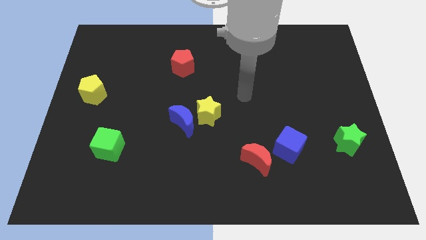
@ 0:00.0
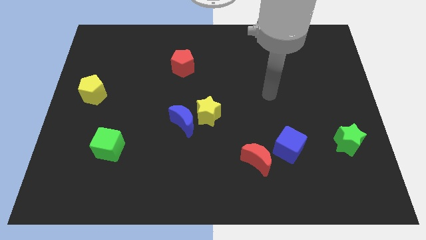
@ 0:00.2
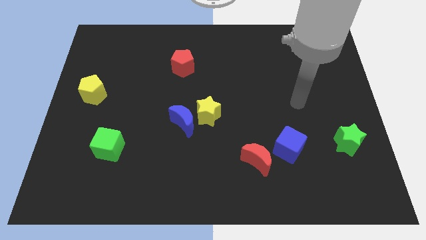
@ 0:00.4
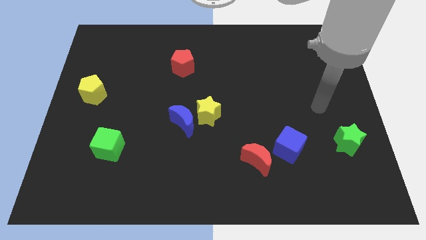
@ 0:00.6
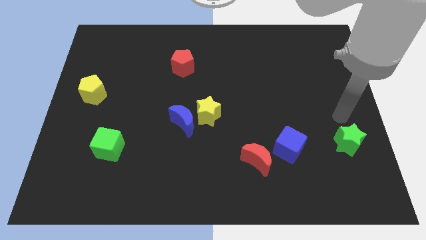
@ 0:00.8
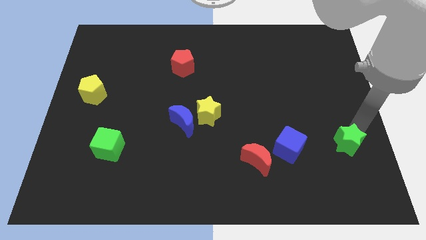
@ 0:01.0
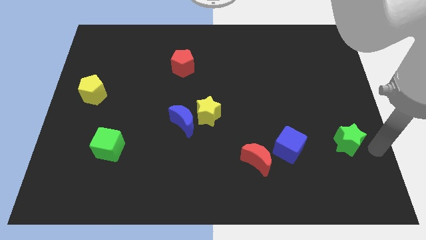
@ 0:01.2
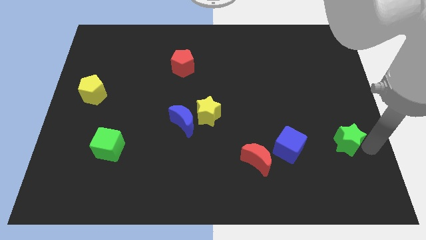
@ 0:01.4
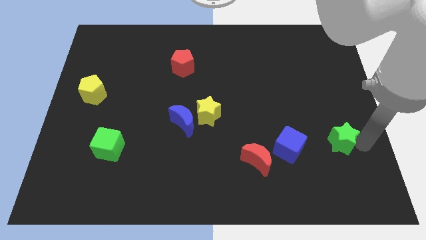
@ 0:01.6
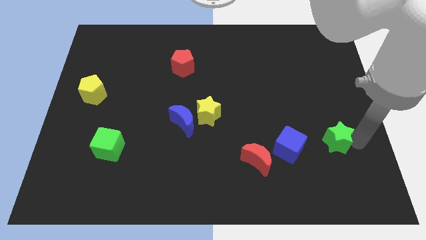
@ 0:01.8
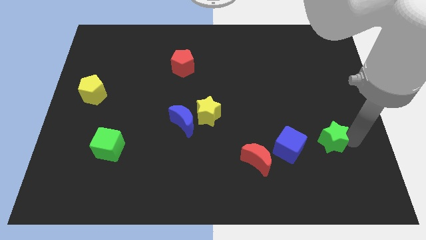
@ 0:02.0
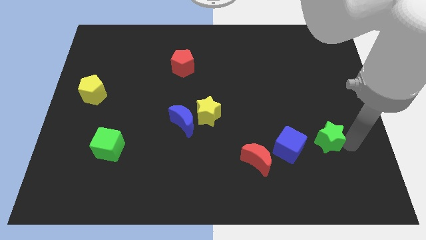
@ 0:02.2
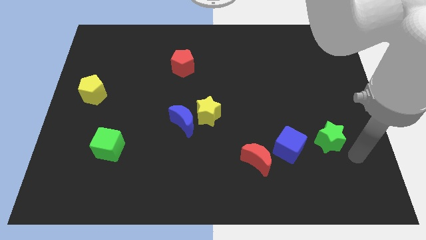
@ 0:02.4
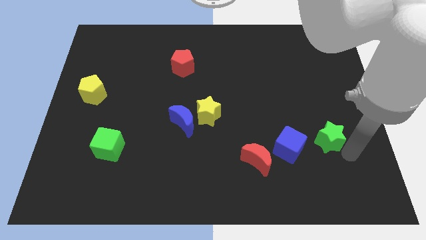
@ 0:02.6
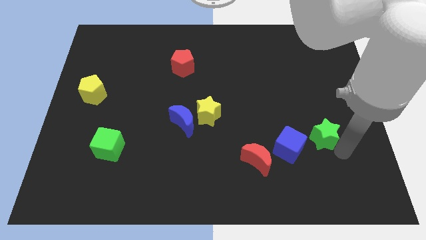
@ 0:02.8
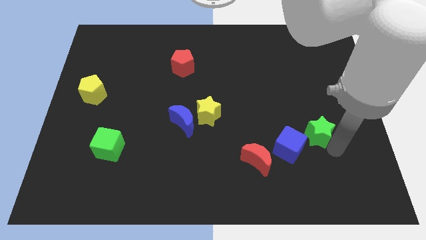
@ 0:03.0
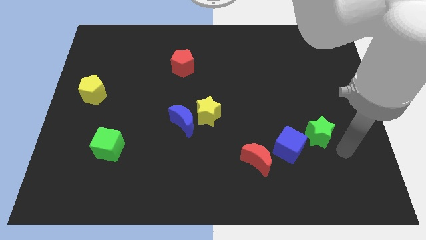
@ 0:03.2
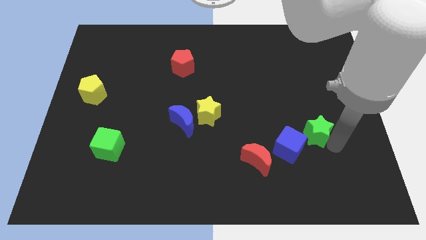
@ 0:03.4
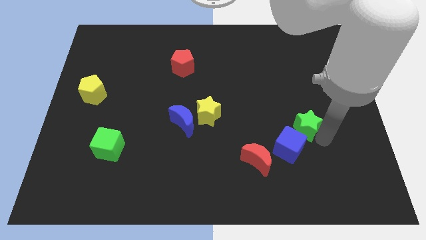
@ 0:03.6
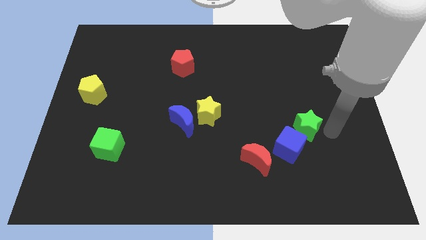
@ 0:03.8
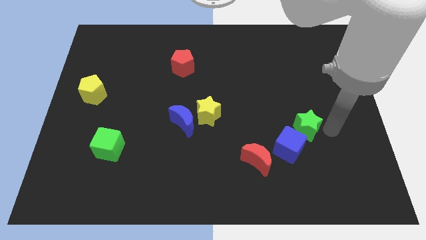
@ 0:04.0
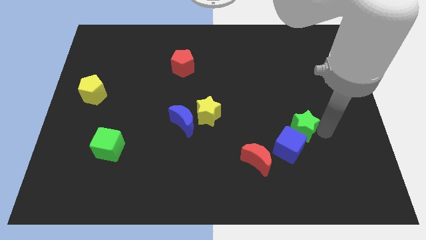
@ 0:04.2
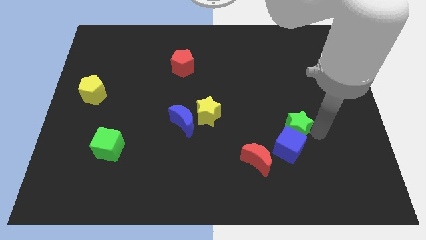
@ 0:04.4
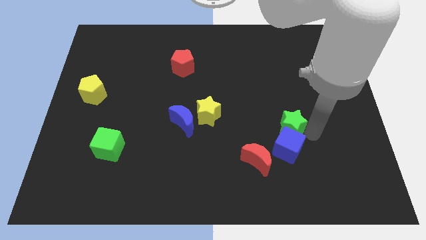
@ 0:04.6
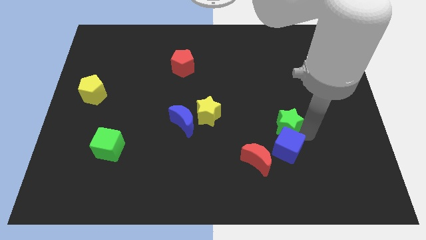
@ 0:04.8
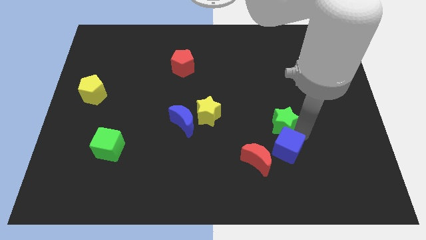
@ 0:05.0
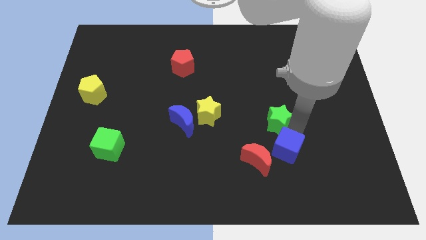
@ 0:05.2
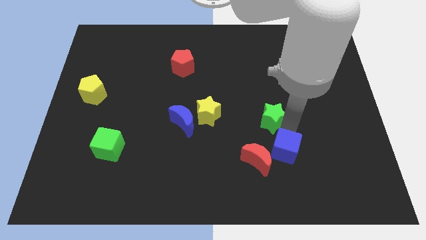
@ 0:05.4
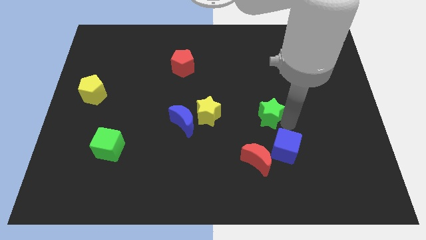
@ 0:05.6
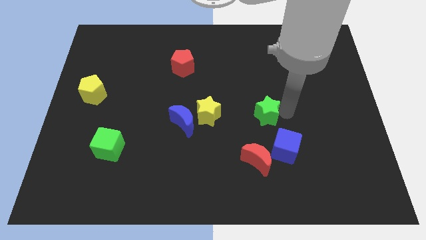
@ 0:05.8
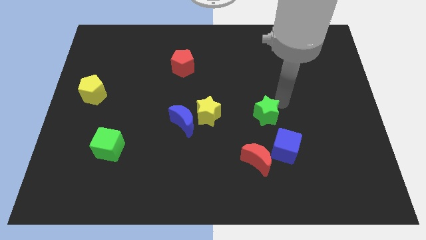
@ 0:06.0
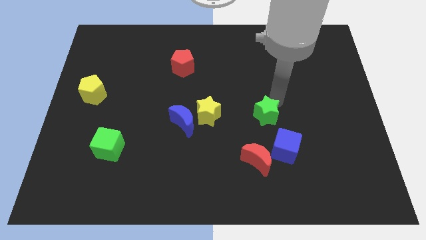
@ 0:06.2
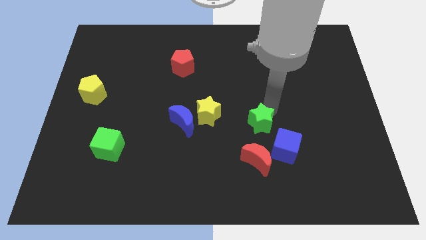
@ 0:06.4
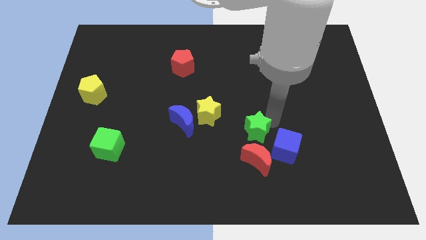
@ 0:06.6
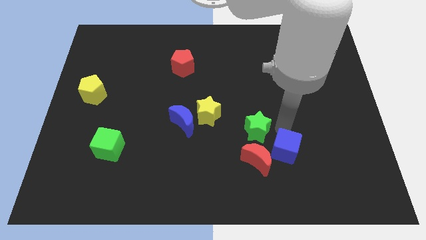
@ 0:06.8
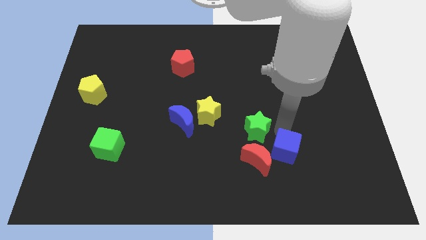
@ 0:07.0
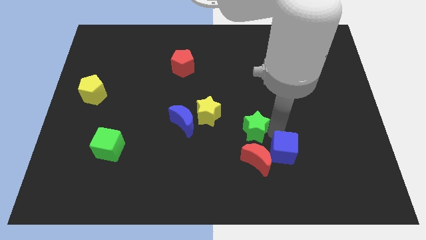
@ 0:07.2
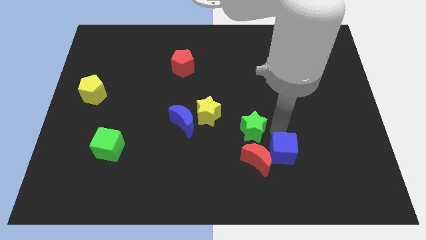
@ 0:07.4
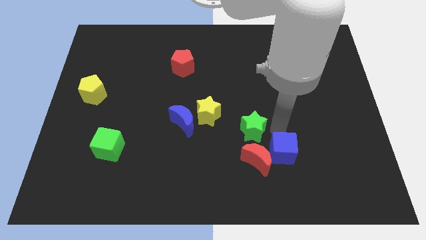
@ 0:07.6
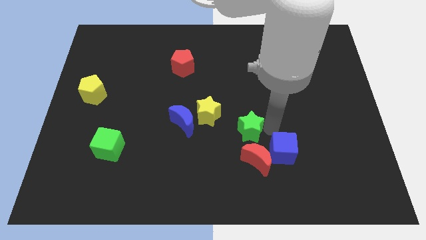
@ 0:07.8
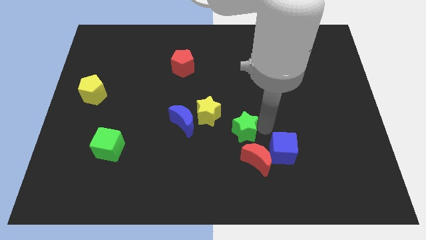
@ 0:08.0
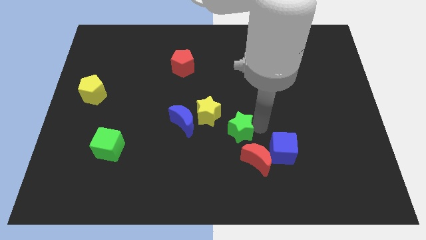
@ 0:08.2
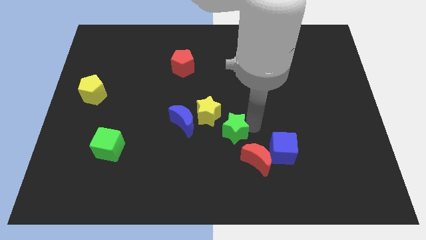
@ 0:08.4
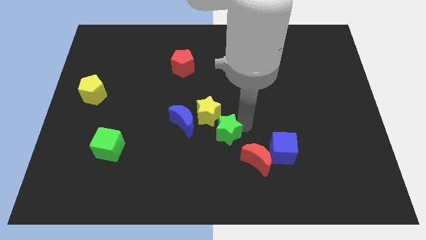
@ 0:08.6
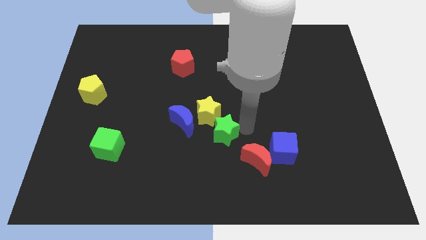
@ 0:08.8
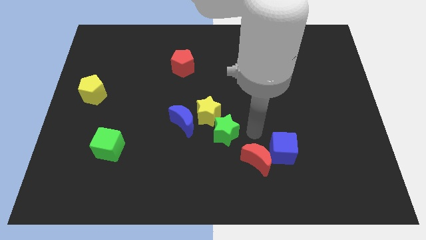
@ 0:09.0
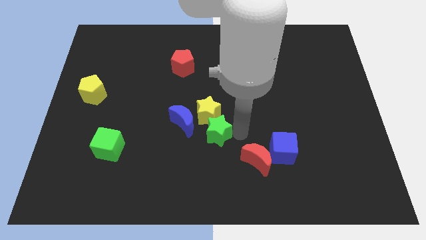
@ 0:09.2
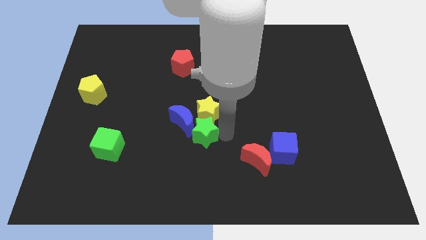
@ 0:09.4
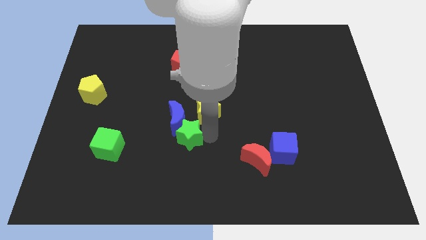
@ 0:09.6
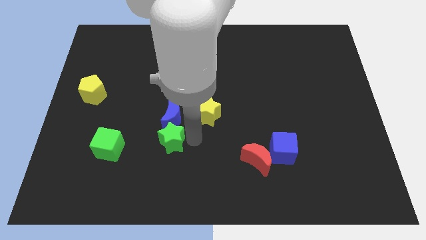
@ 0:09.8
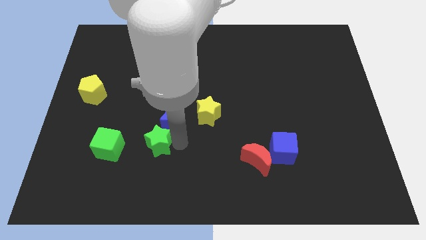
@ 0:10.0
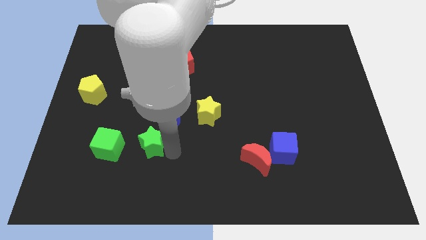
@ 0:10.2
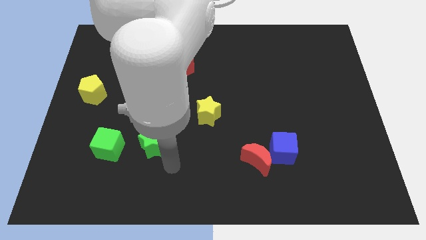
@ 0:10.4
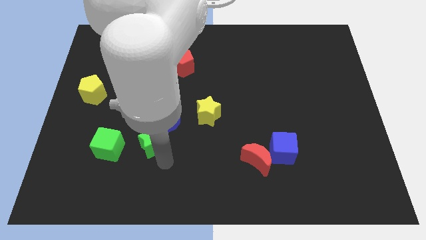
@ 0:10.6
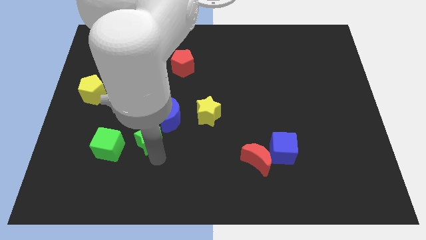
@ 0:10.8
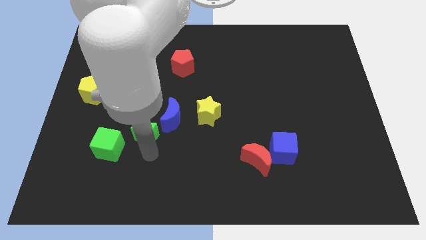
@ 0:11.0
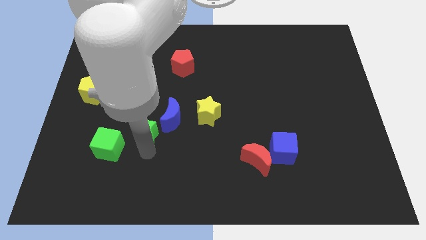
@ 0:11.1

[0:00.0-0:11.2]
put the green star to the left of the blue moon

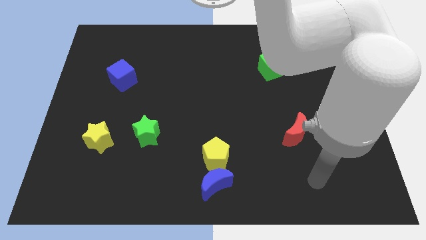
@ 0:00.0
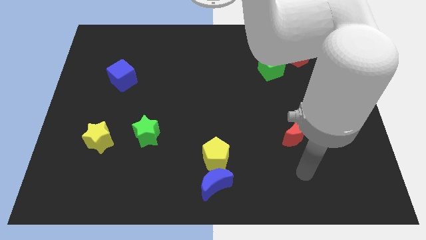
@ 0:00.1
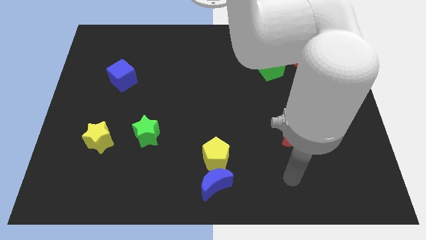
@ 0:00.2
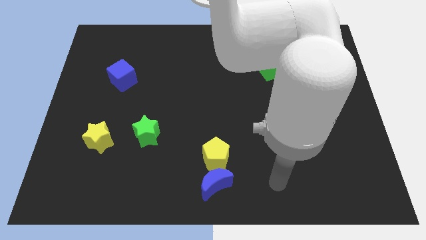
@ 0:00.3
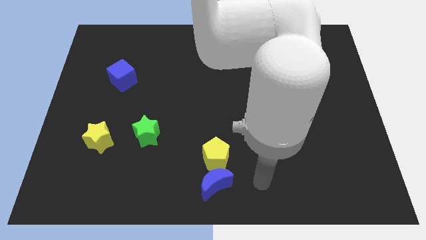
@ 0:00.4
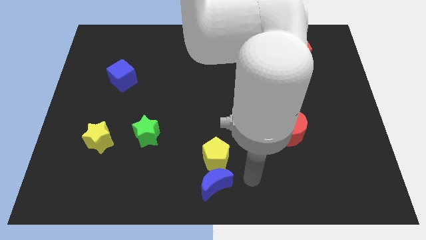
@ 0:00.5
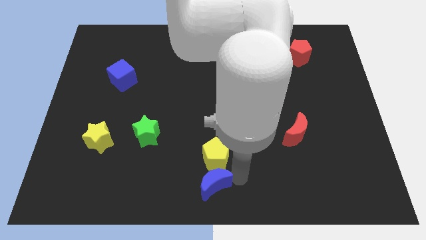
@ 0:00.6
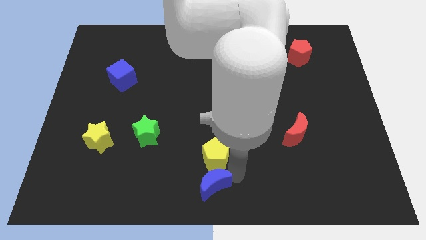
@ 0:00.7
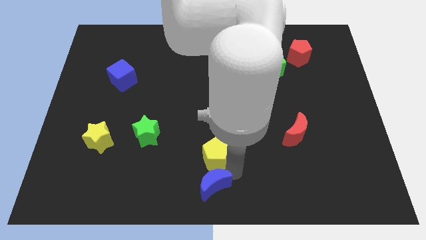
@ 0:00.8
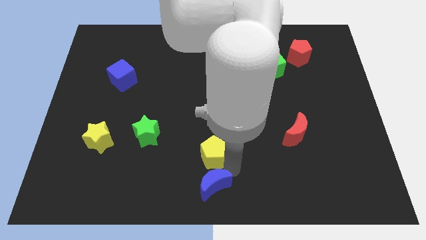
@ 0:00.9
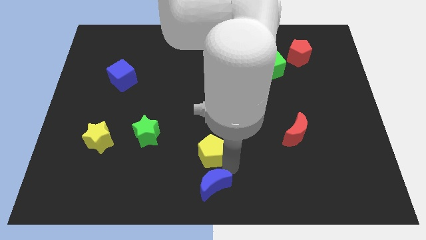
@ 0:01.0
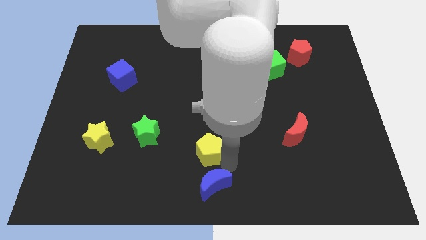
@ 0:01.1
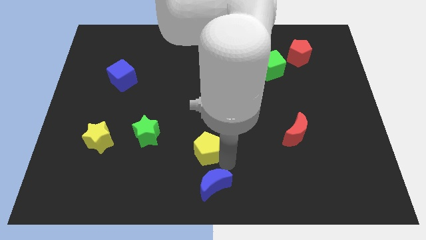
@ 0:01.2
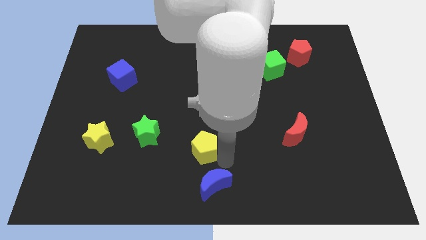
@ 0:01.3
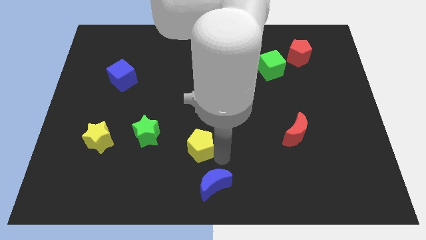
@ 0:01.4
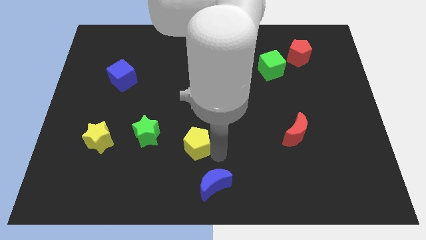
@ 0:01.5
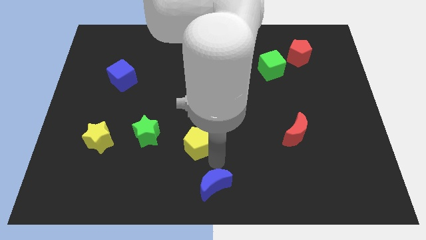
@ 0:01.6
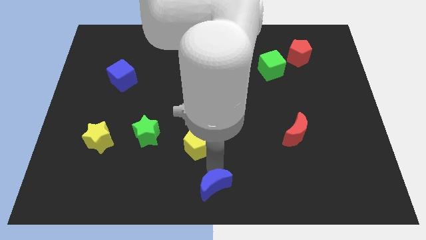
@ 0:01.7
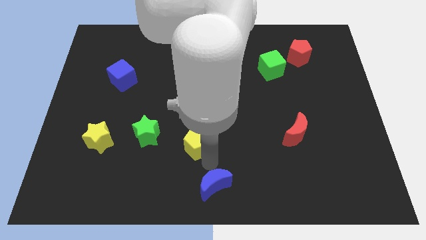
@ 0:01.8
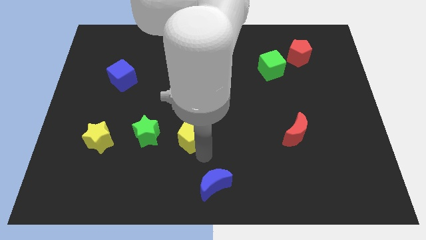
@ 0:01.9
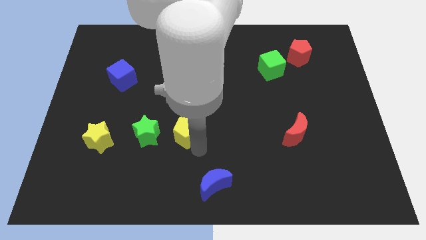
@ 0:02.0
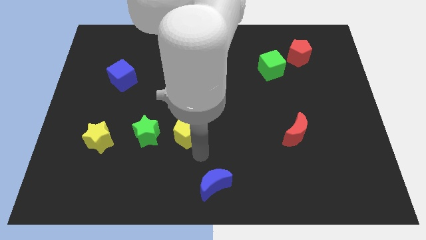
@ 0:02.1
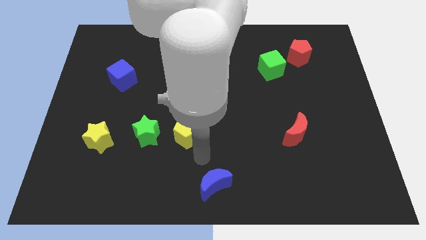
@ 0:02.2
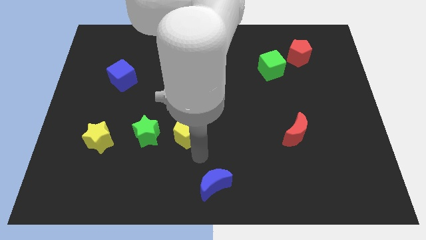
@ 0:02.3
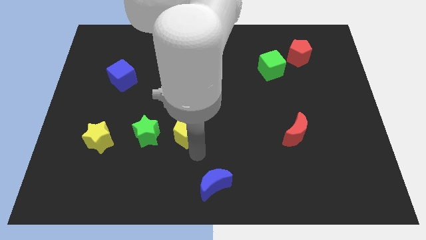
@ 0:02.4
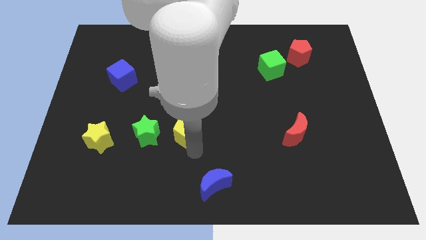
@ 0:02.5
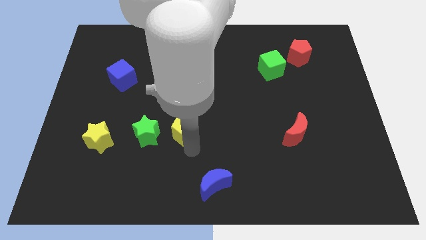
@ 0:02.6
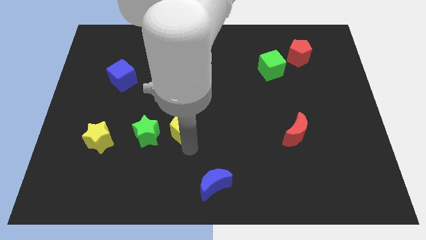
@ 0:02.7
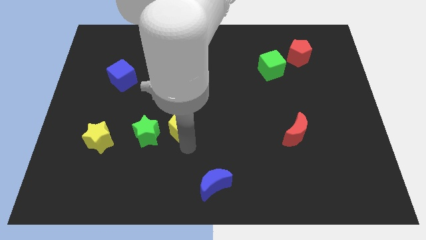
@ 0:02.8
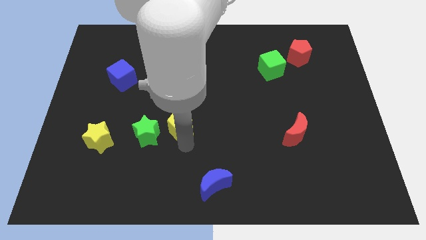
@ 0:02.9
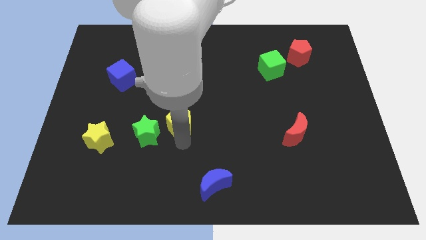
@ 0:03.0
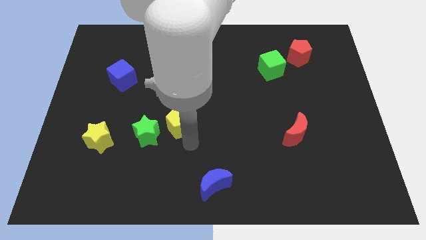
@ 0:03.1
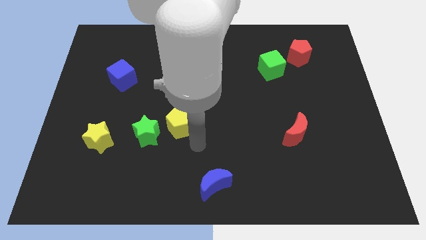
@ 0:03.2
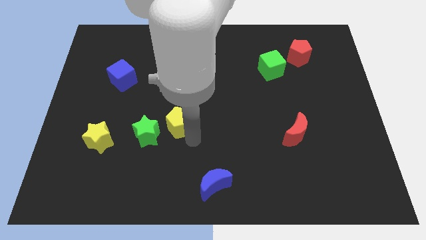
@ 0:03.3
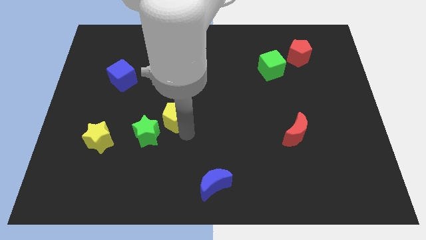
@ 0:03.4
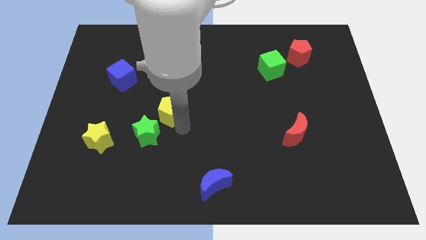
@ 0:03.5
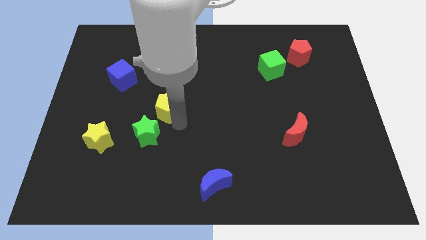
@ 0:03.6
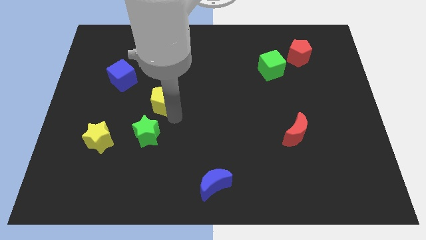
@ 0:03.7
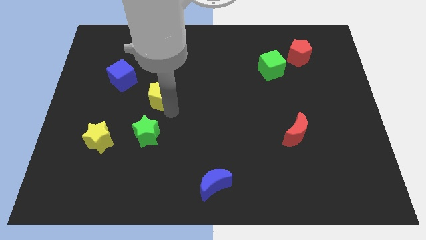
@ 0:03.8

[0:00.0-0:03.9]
push the yellow pentagon diagonally down and to the right of the blue cube
